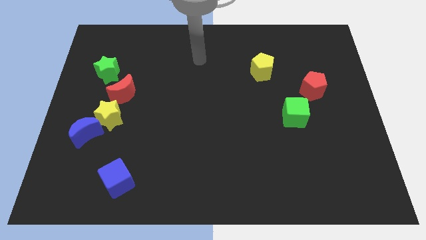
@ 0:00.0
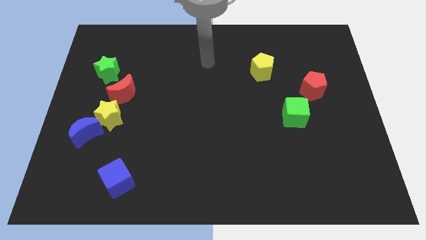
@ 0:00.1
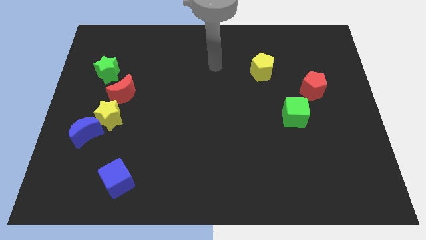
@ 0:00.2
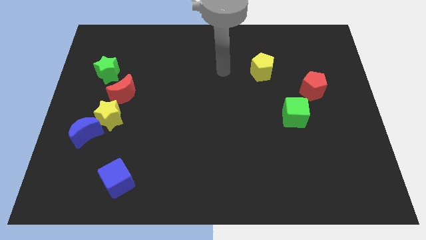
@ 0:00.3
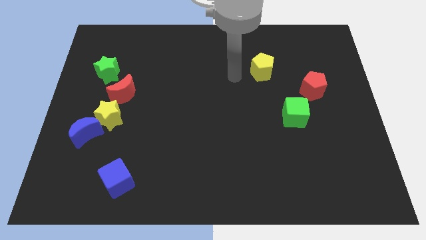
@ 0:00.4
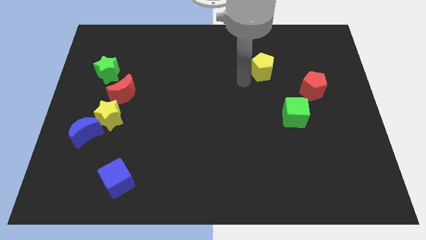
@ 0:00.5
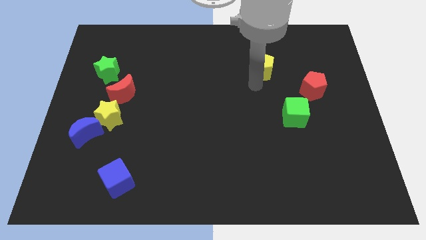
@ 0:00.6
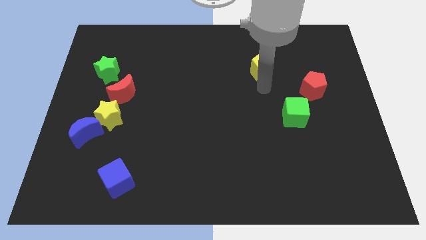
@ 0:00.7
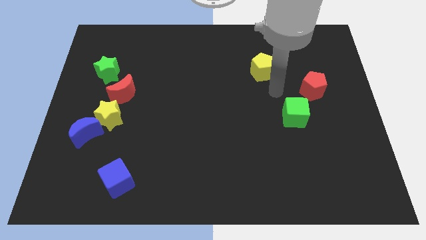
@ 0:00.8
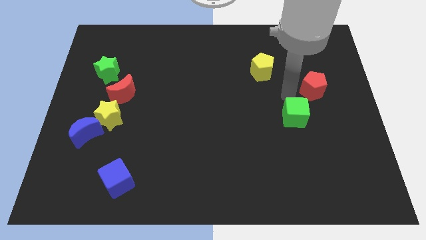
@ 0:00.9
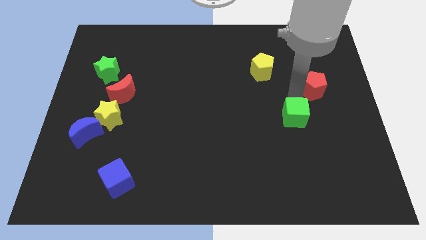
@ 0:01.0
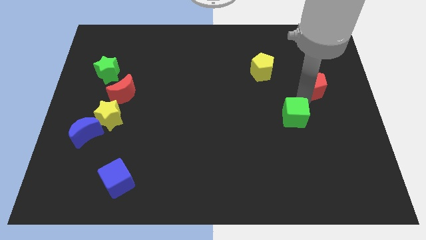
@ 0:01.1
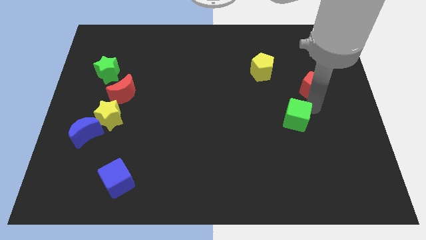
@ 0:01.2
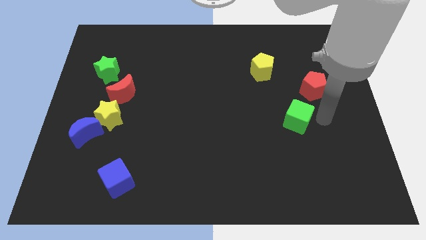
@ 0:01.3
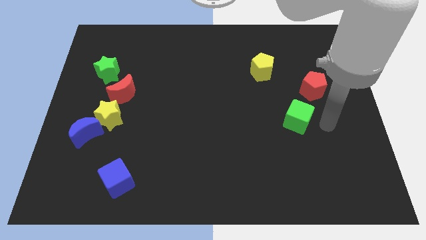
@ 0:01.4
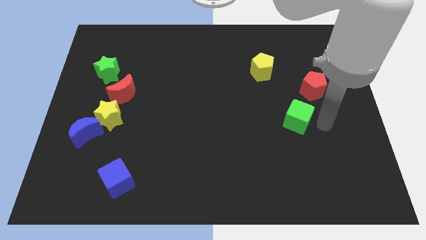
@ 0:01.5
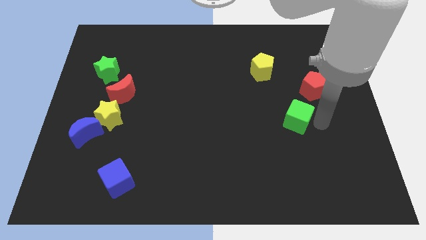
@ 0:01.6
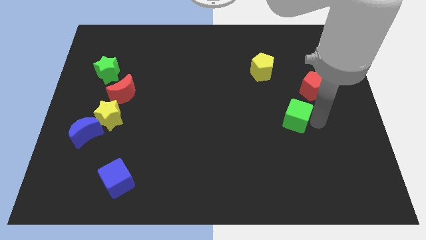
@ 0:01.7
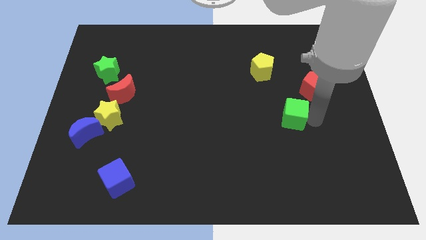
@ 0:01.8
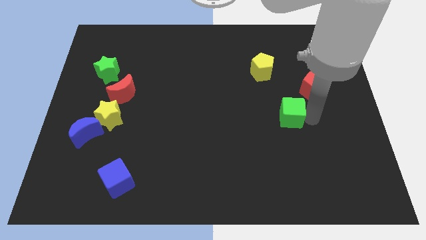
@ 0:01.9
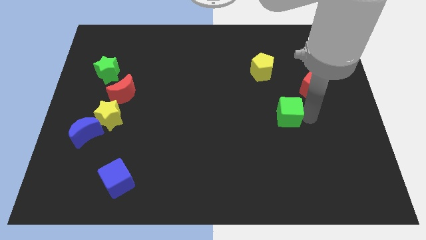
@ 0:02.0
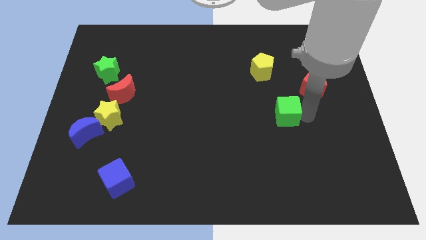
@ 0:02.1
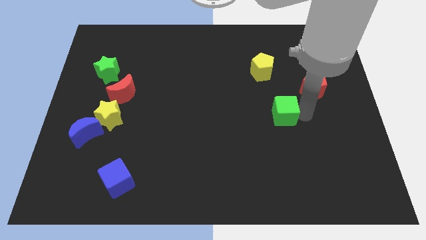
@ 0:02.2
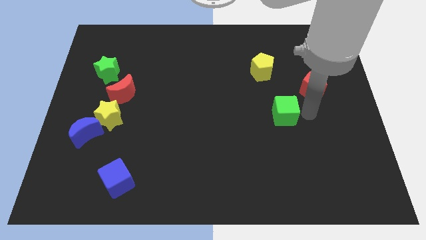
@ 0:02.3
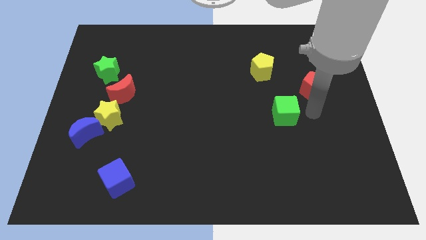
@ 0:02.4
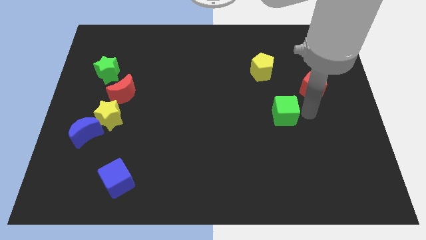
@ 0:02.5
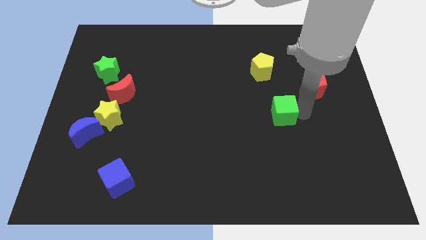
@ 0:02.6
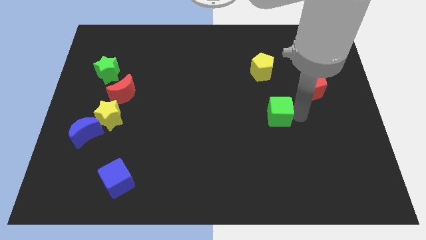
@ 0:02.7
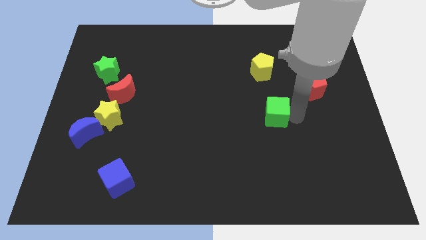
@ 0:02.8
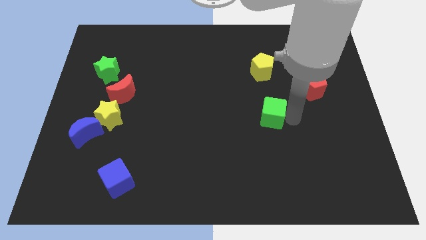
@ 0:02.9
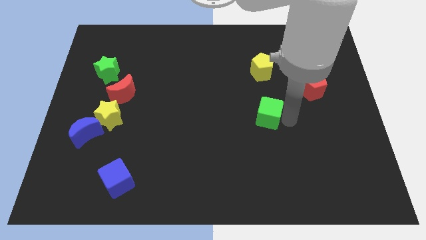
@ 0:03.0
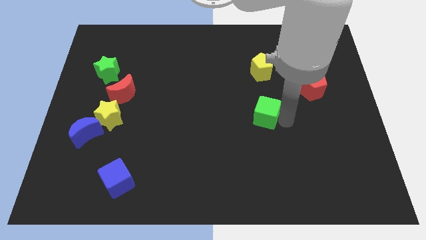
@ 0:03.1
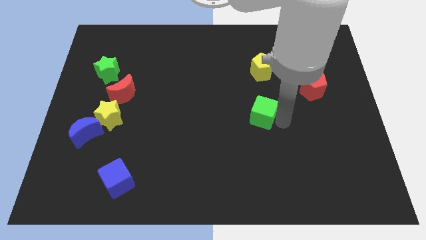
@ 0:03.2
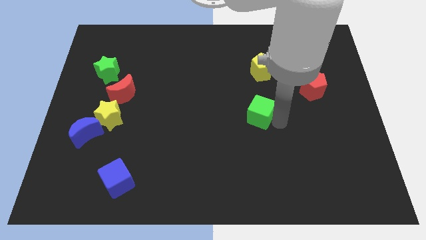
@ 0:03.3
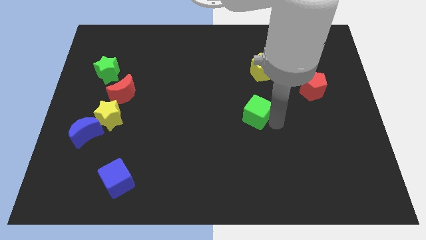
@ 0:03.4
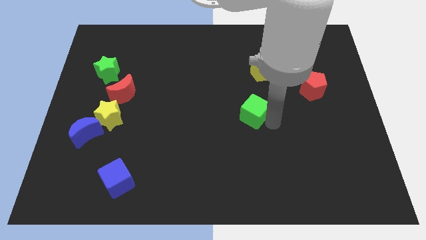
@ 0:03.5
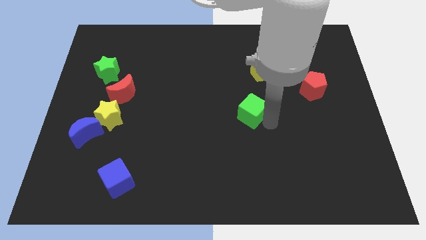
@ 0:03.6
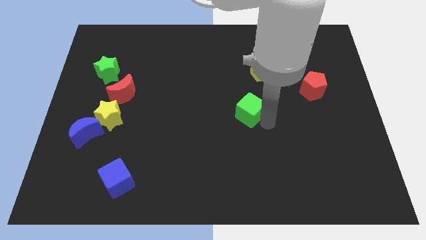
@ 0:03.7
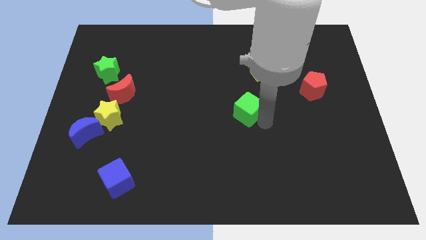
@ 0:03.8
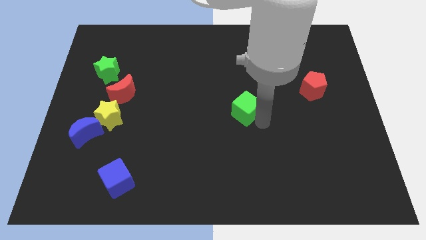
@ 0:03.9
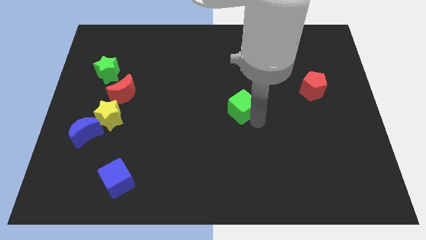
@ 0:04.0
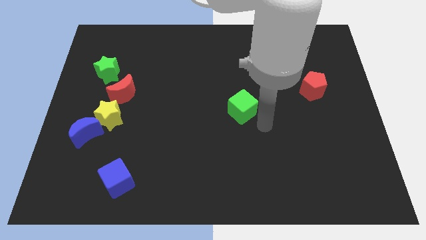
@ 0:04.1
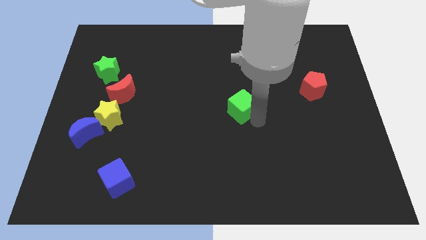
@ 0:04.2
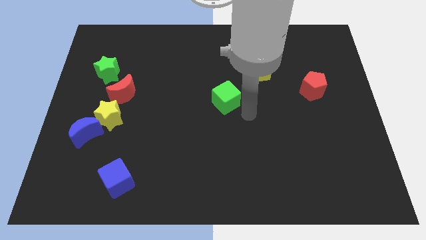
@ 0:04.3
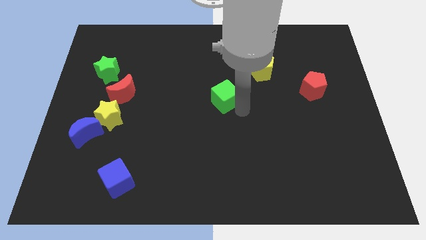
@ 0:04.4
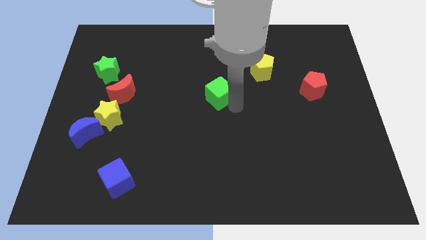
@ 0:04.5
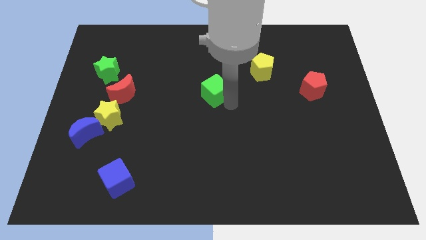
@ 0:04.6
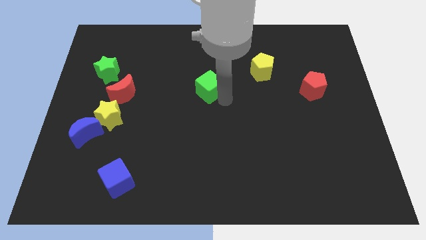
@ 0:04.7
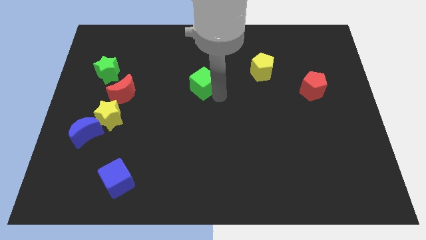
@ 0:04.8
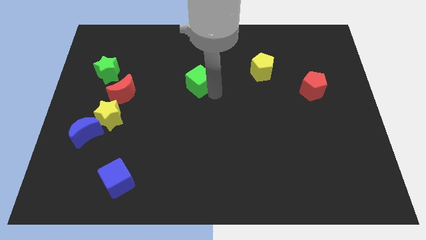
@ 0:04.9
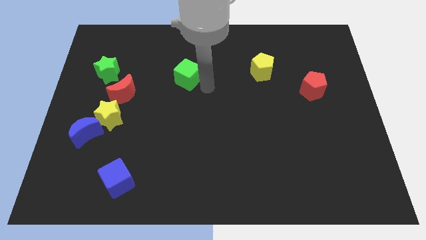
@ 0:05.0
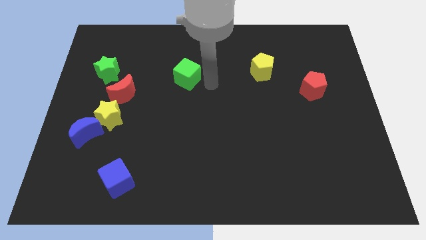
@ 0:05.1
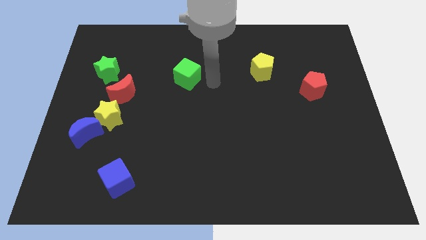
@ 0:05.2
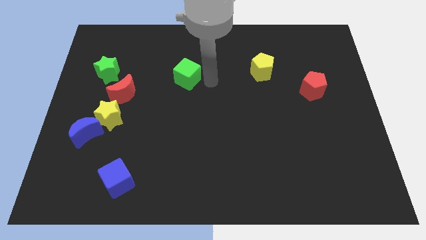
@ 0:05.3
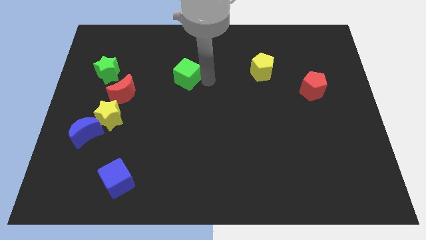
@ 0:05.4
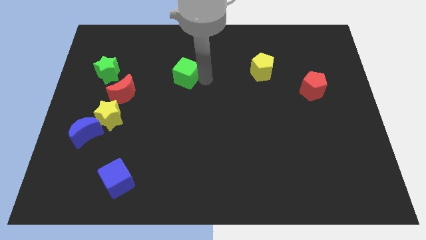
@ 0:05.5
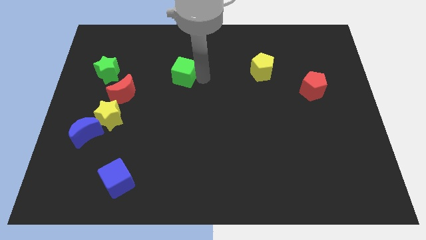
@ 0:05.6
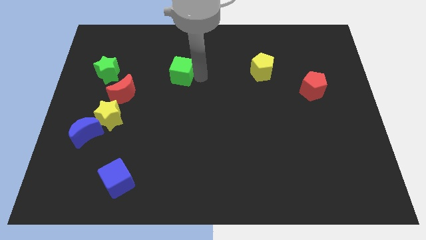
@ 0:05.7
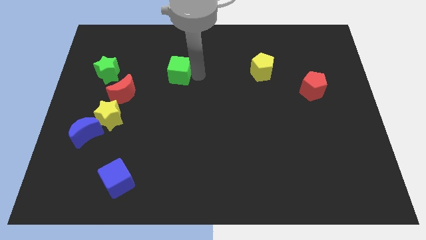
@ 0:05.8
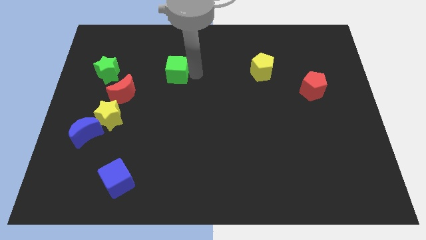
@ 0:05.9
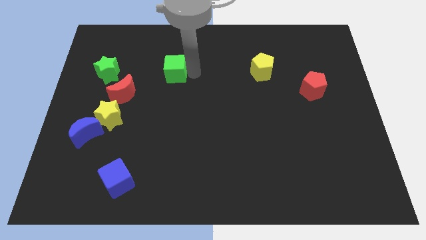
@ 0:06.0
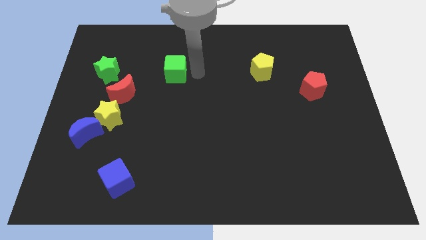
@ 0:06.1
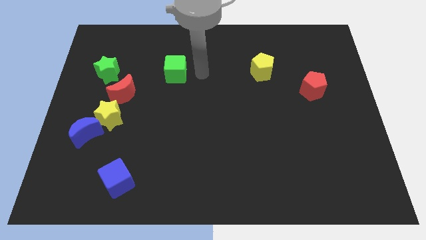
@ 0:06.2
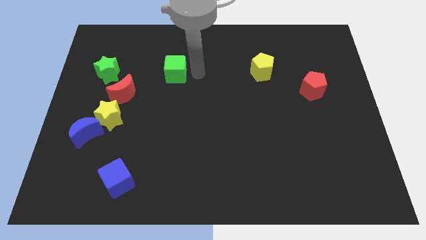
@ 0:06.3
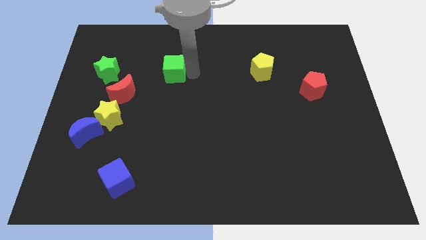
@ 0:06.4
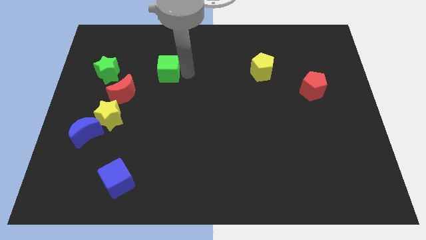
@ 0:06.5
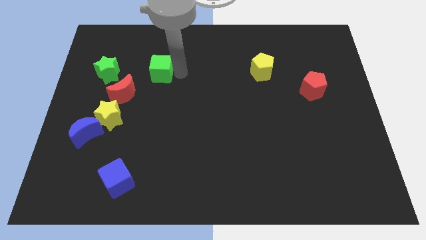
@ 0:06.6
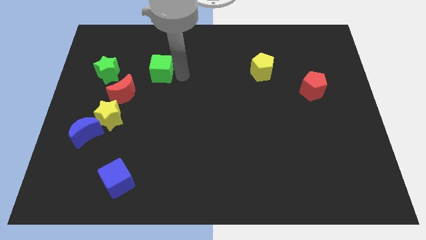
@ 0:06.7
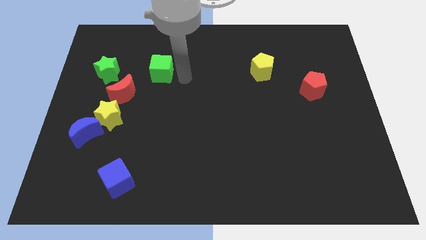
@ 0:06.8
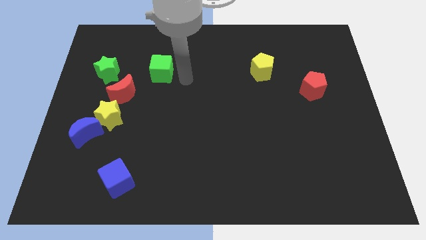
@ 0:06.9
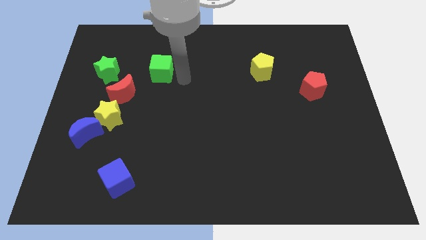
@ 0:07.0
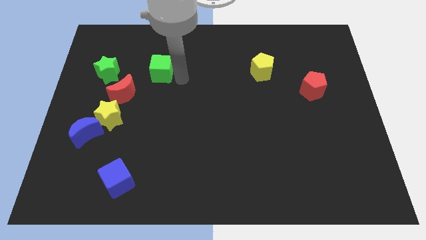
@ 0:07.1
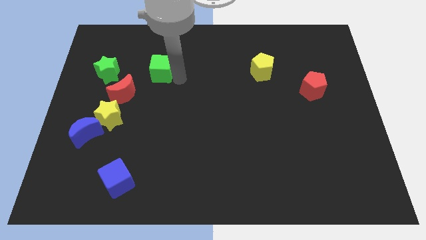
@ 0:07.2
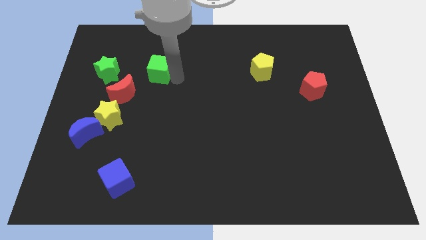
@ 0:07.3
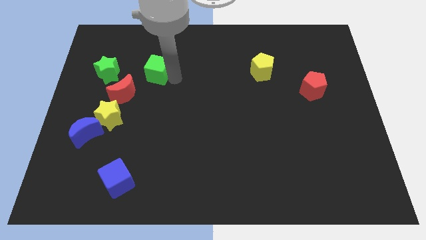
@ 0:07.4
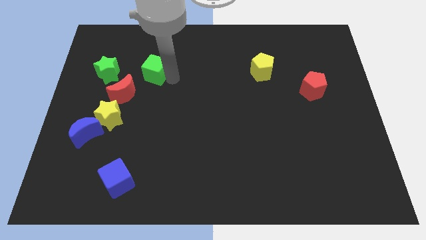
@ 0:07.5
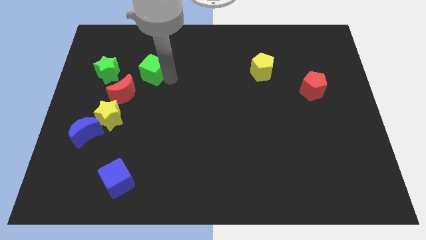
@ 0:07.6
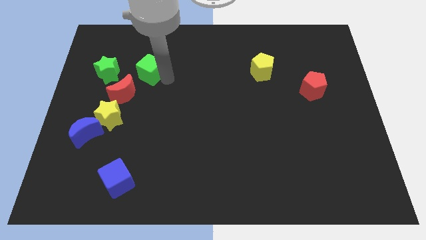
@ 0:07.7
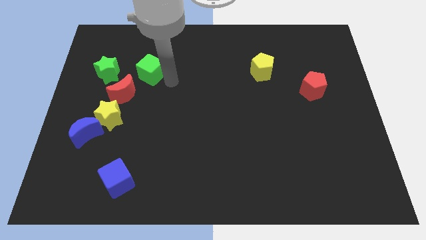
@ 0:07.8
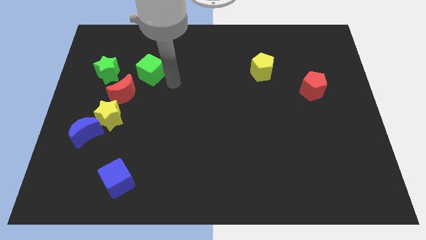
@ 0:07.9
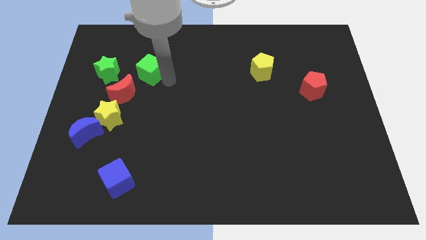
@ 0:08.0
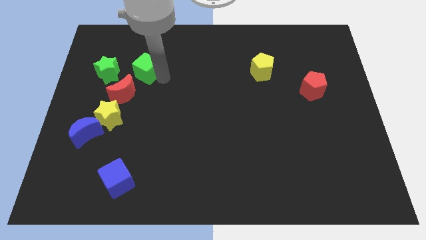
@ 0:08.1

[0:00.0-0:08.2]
move the green cube above the red moon
